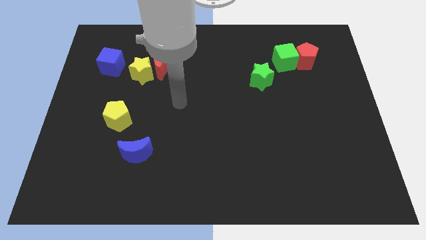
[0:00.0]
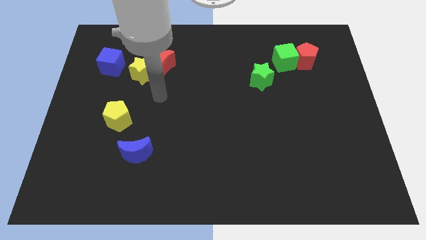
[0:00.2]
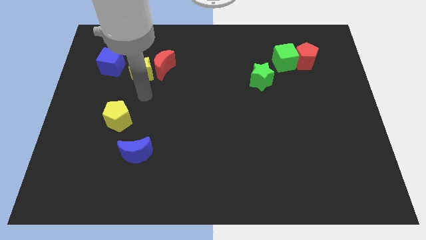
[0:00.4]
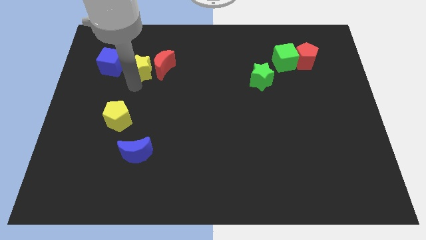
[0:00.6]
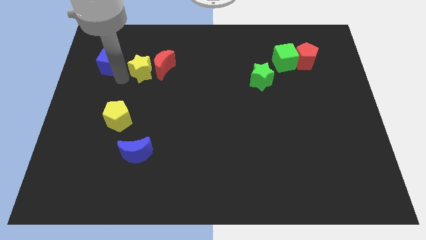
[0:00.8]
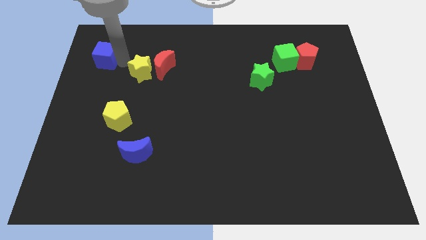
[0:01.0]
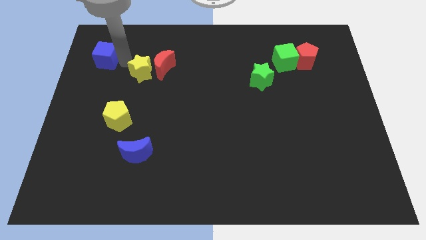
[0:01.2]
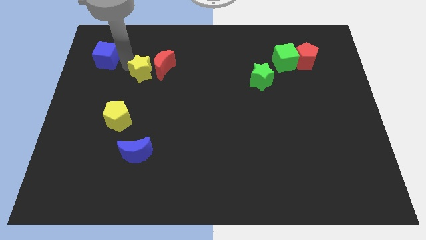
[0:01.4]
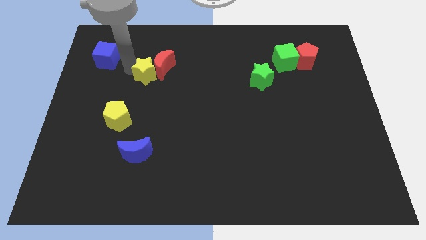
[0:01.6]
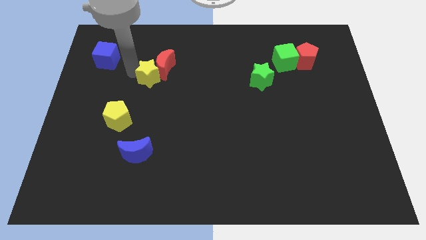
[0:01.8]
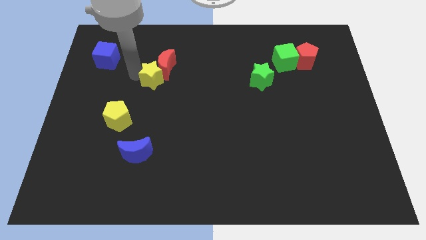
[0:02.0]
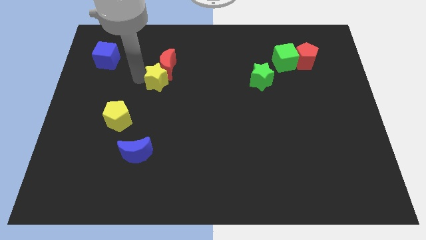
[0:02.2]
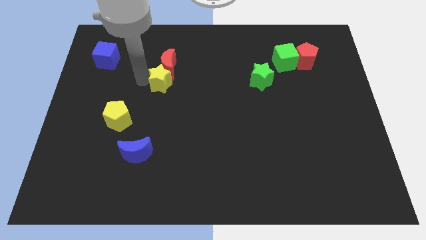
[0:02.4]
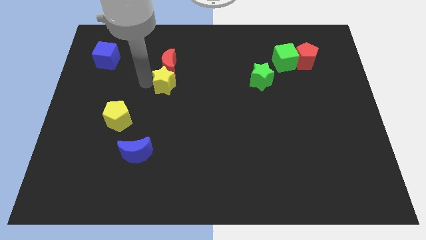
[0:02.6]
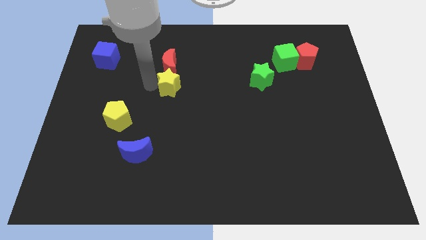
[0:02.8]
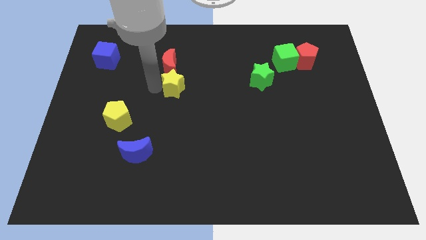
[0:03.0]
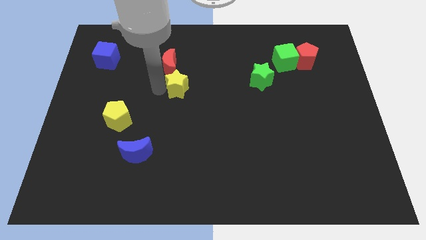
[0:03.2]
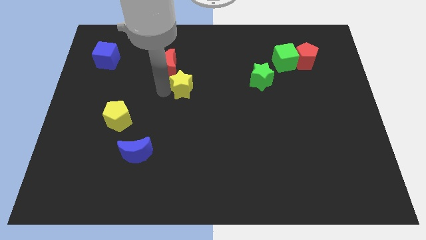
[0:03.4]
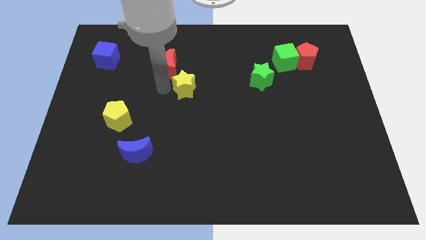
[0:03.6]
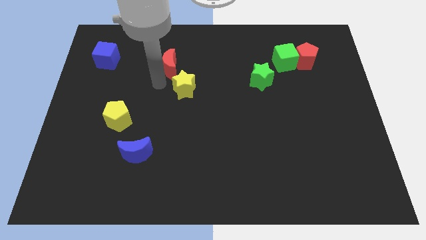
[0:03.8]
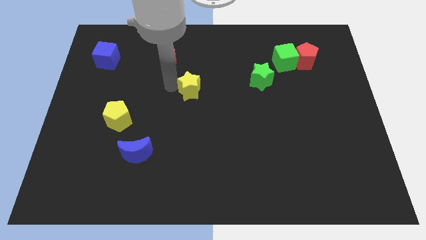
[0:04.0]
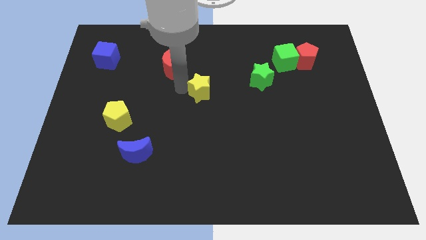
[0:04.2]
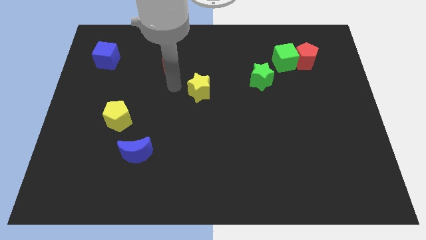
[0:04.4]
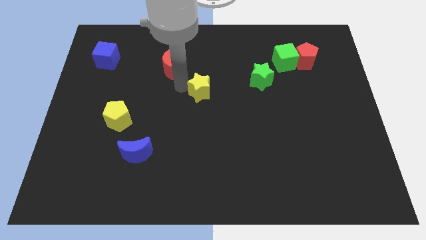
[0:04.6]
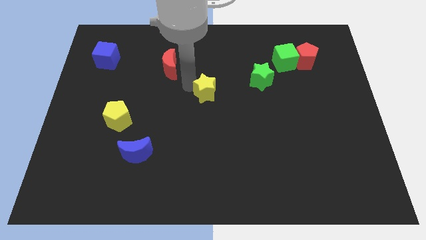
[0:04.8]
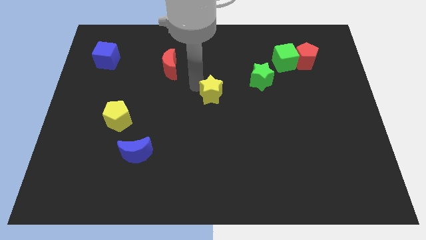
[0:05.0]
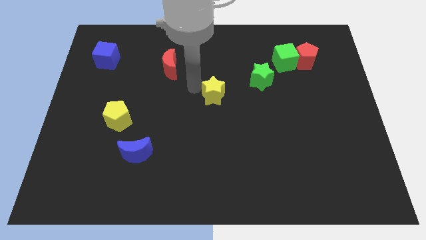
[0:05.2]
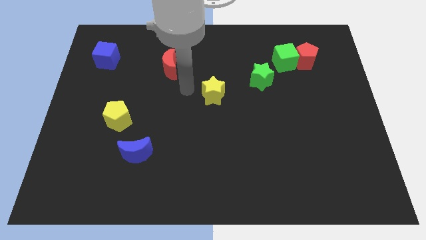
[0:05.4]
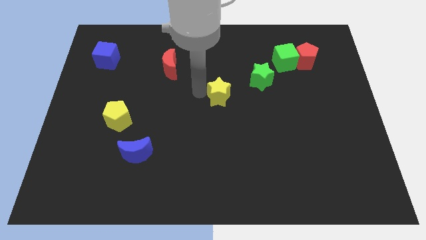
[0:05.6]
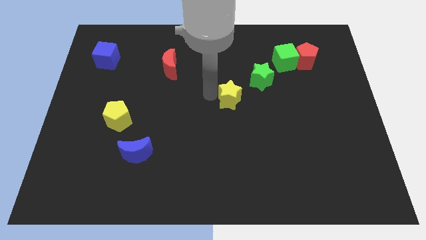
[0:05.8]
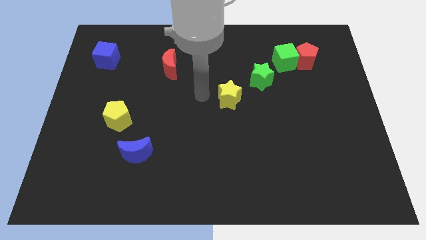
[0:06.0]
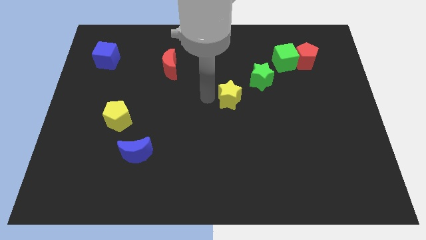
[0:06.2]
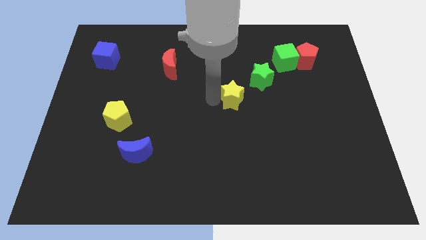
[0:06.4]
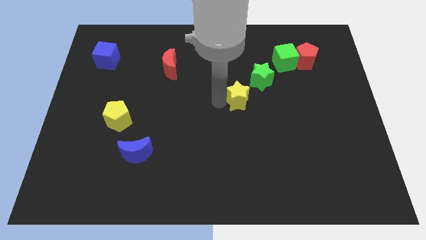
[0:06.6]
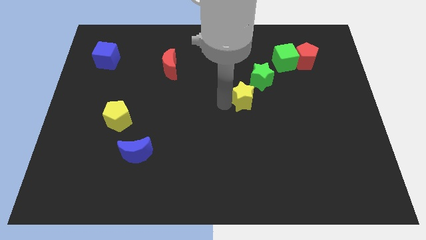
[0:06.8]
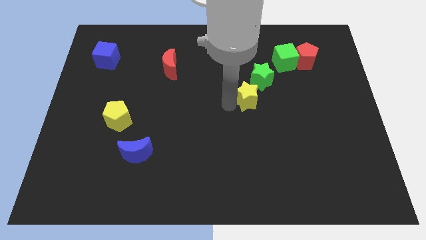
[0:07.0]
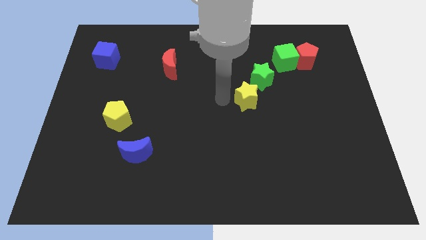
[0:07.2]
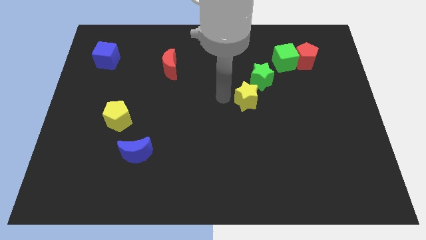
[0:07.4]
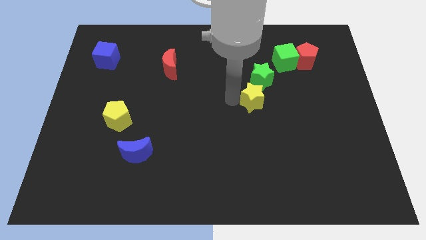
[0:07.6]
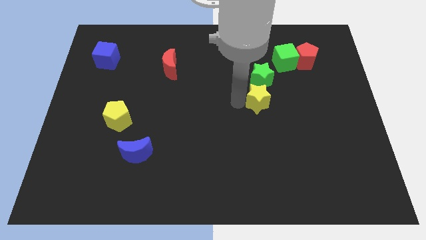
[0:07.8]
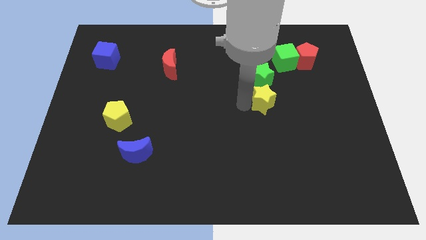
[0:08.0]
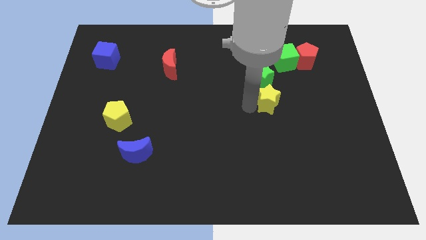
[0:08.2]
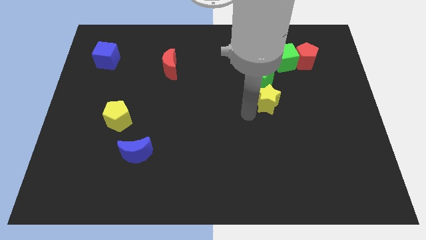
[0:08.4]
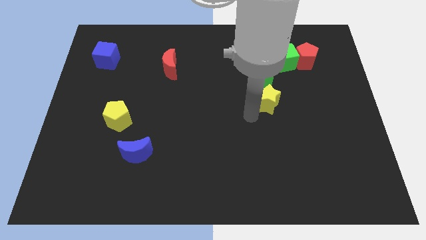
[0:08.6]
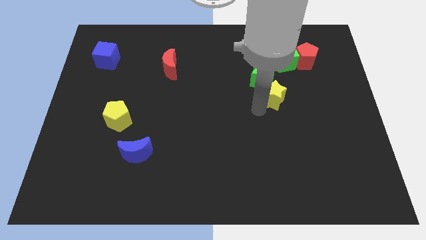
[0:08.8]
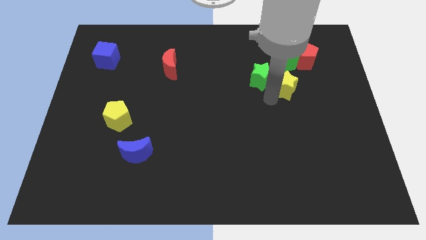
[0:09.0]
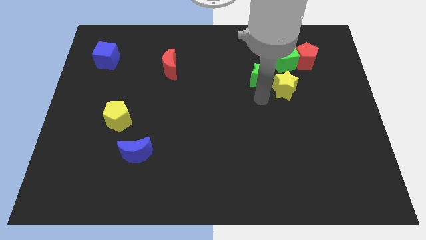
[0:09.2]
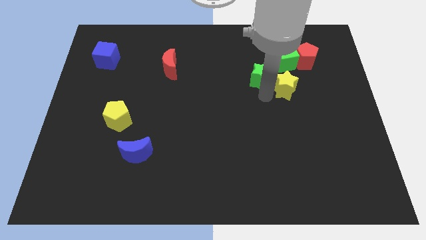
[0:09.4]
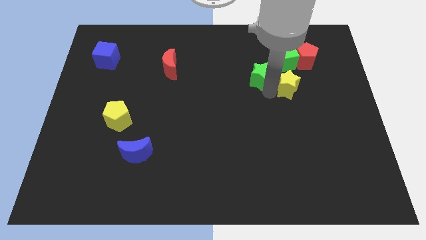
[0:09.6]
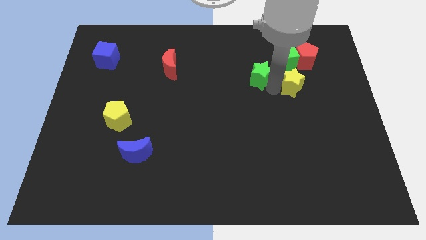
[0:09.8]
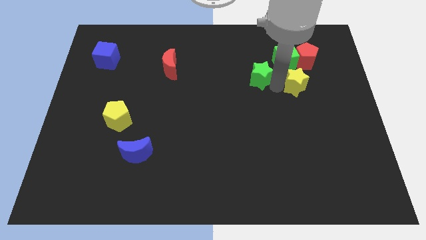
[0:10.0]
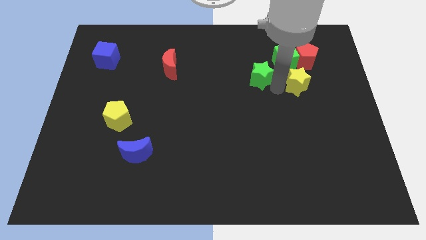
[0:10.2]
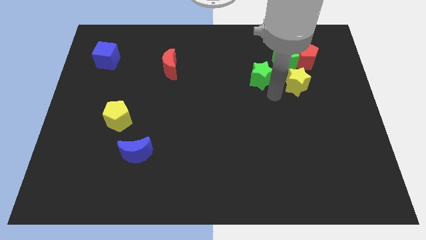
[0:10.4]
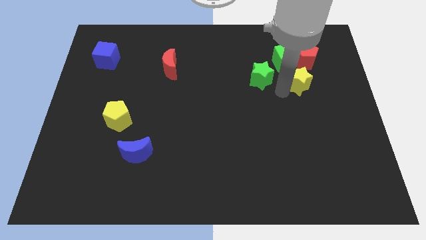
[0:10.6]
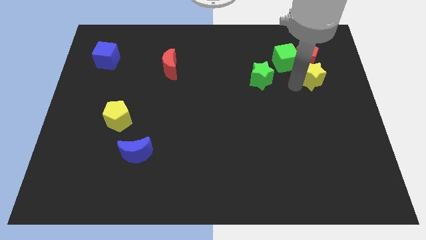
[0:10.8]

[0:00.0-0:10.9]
push the yellow star to the bottom right of the red pentagon

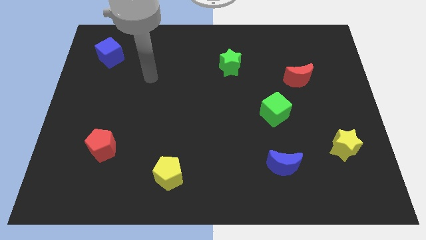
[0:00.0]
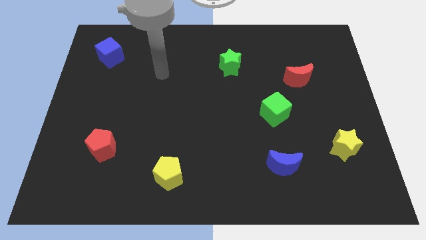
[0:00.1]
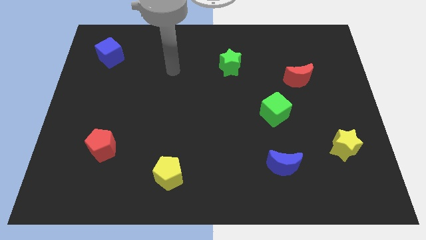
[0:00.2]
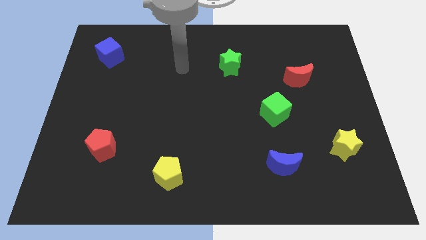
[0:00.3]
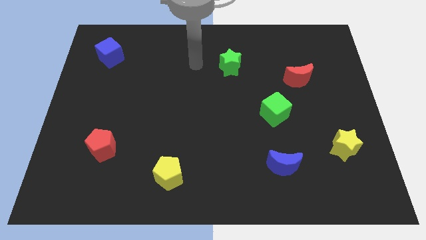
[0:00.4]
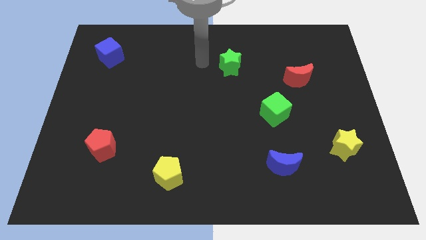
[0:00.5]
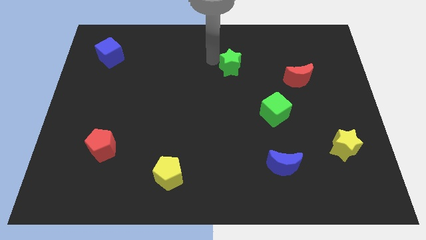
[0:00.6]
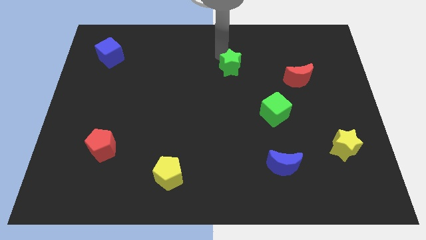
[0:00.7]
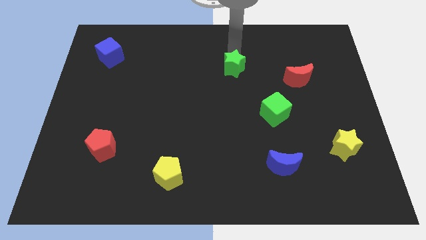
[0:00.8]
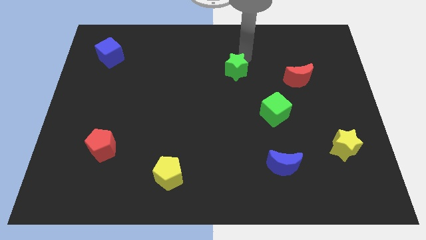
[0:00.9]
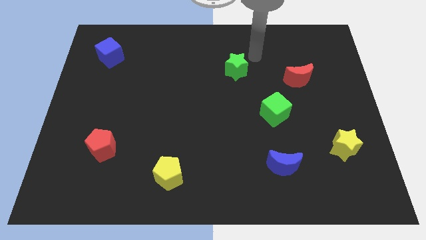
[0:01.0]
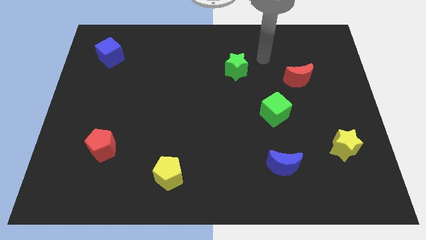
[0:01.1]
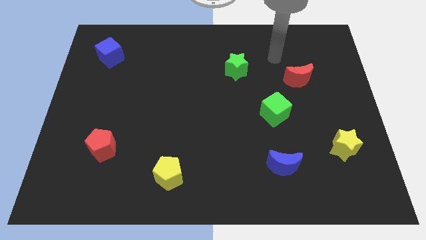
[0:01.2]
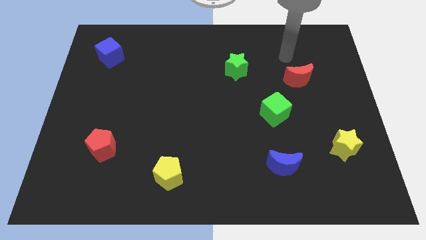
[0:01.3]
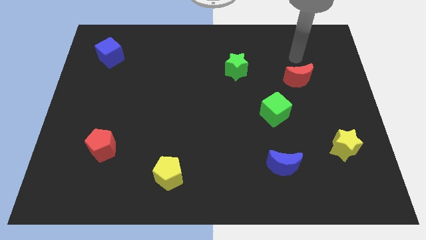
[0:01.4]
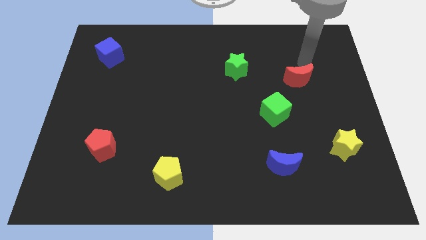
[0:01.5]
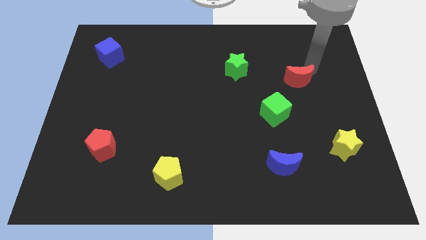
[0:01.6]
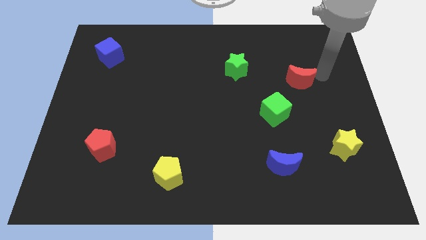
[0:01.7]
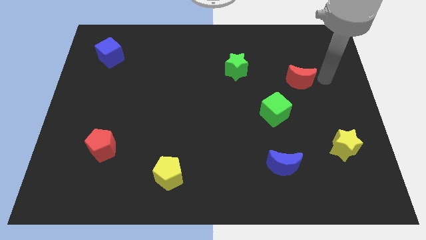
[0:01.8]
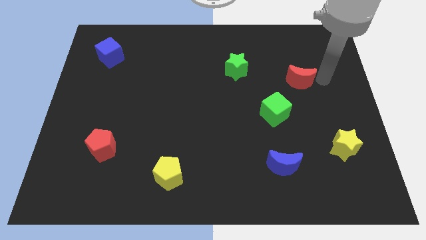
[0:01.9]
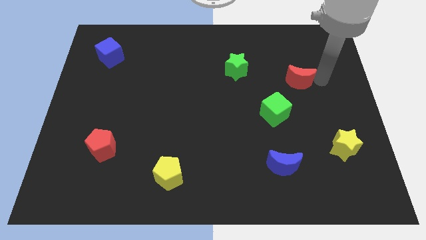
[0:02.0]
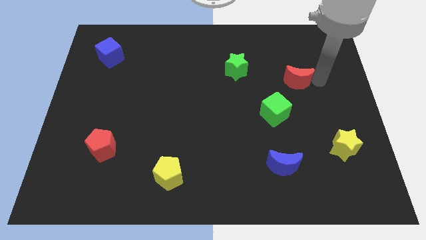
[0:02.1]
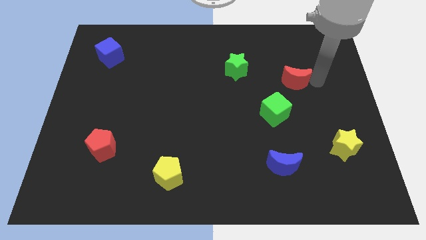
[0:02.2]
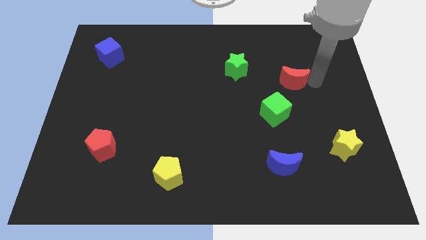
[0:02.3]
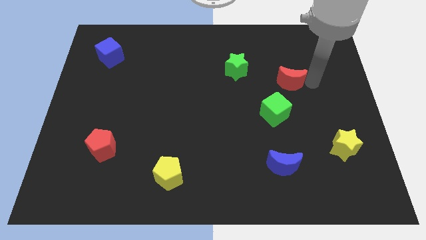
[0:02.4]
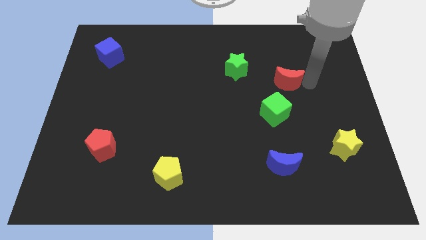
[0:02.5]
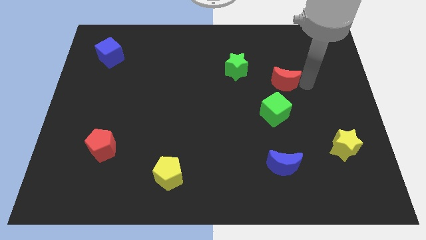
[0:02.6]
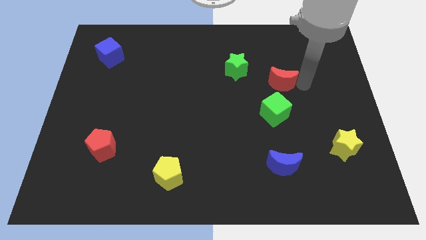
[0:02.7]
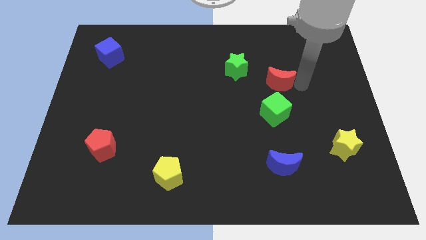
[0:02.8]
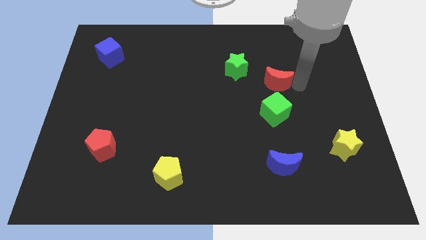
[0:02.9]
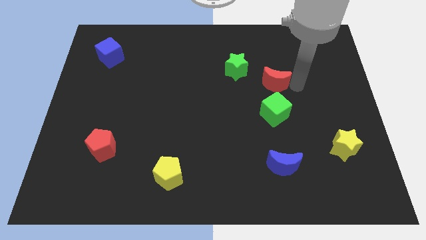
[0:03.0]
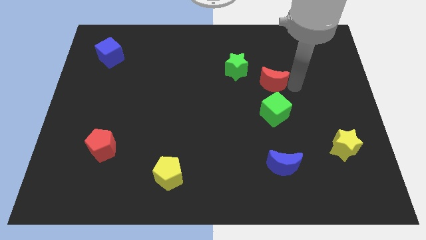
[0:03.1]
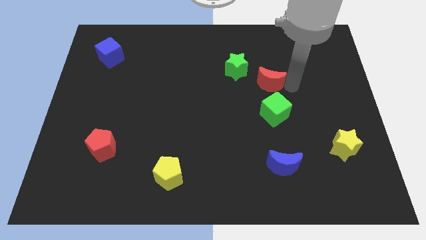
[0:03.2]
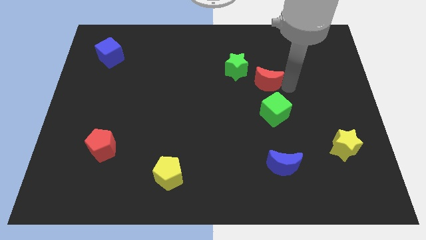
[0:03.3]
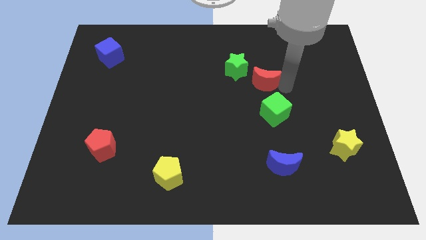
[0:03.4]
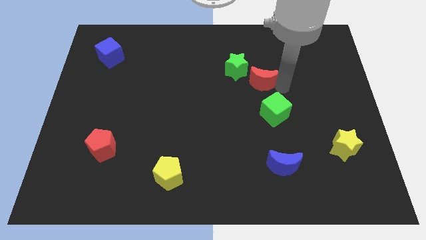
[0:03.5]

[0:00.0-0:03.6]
move the red moon diagonally up and to the left of the green cube
